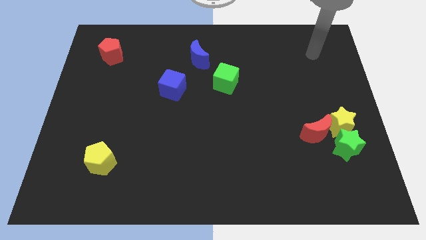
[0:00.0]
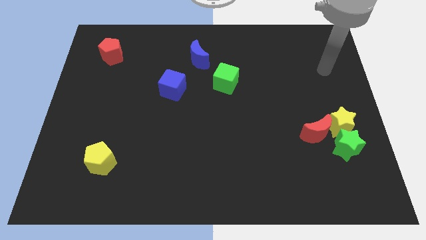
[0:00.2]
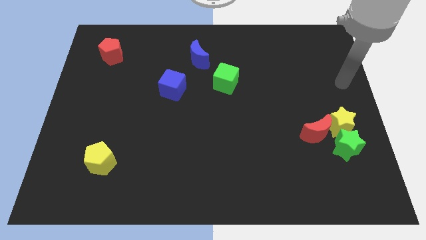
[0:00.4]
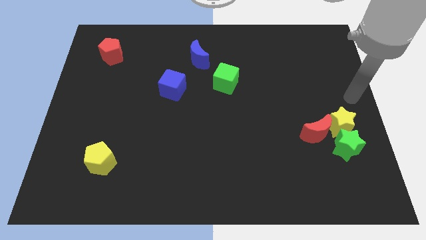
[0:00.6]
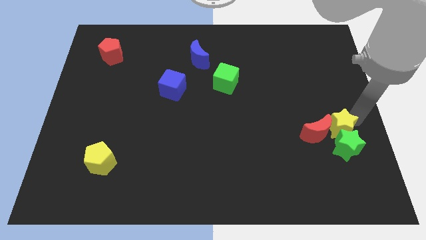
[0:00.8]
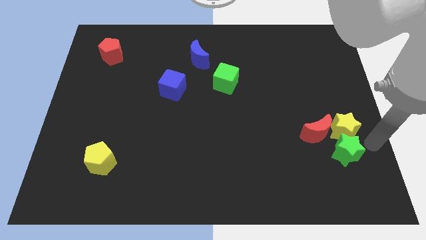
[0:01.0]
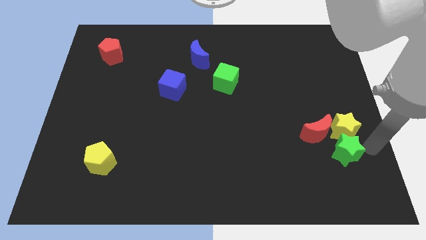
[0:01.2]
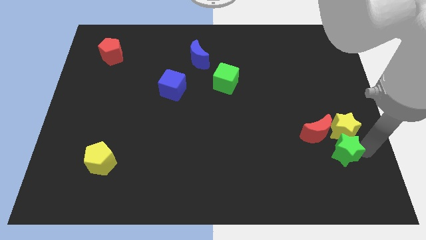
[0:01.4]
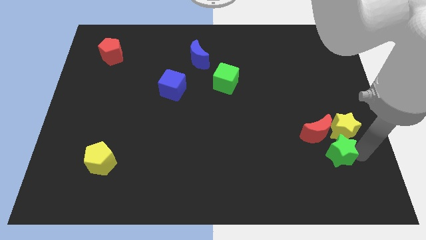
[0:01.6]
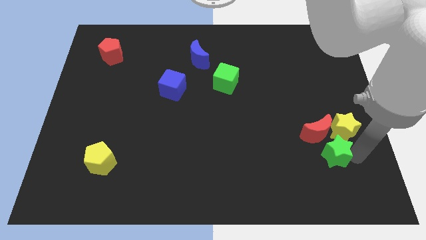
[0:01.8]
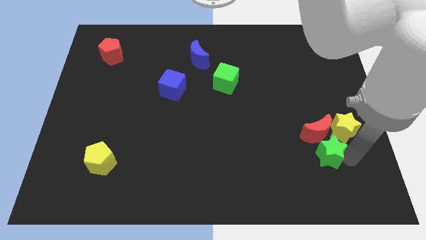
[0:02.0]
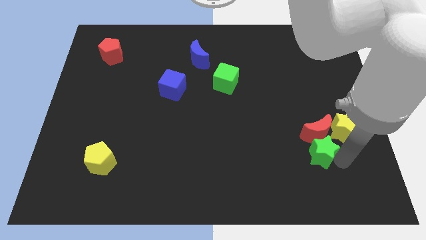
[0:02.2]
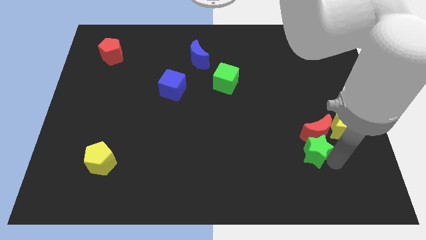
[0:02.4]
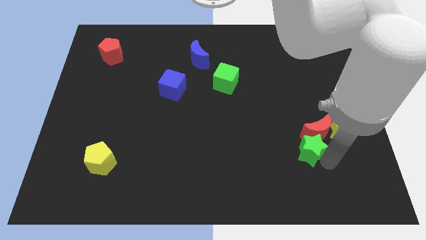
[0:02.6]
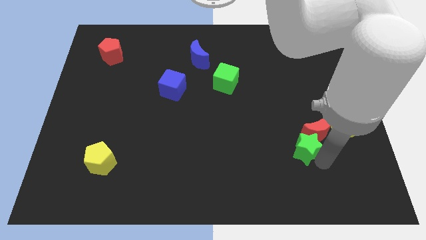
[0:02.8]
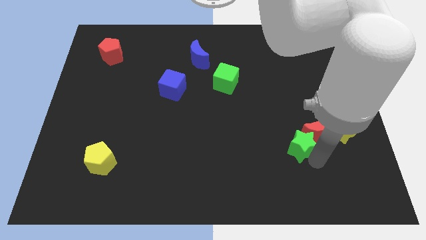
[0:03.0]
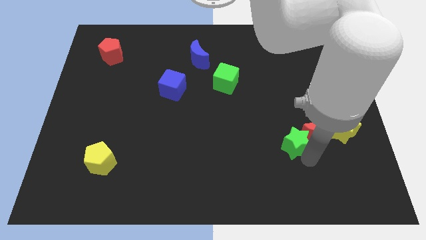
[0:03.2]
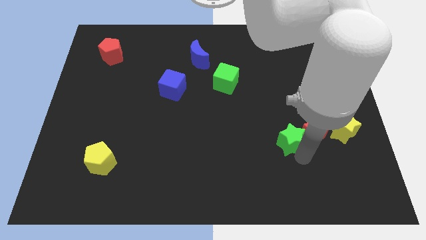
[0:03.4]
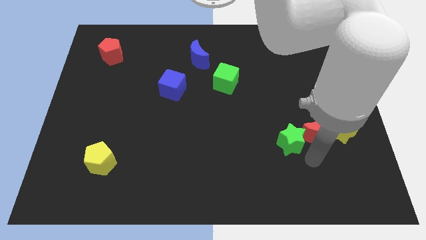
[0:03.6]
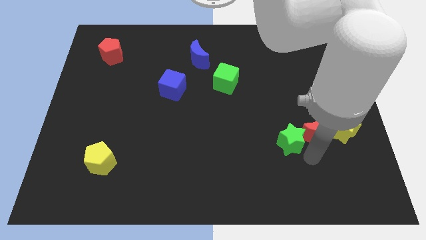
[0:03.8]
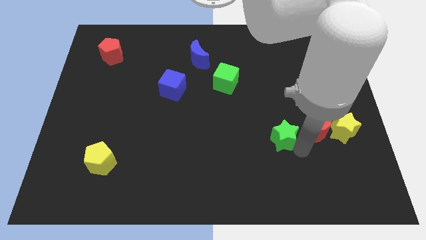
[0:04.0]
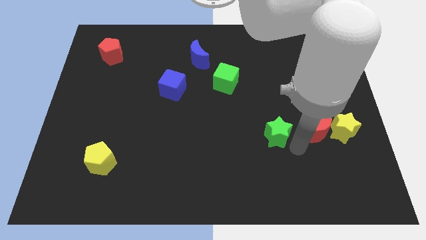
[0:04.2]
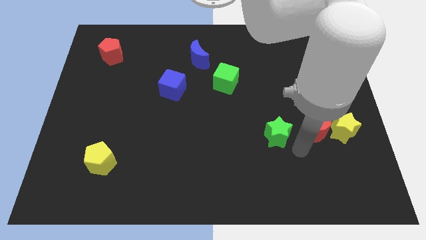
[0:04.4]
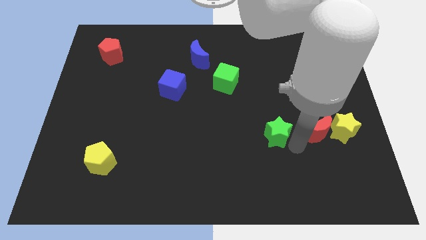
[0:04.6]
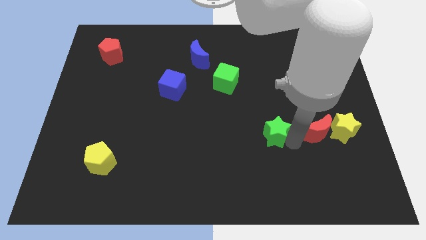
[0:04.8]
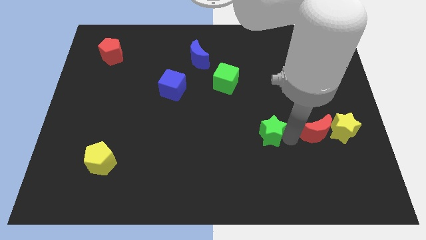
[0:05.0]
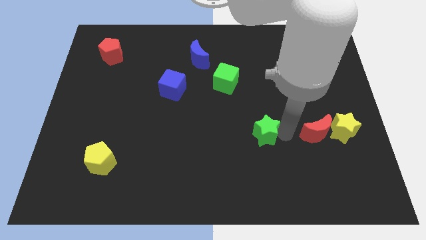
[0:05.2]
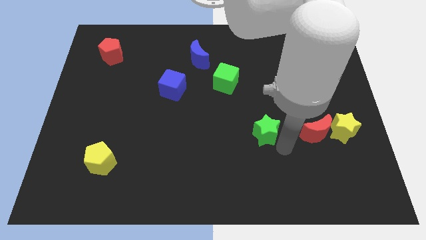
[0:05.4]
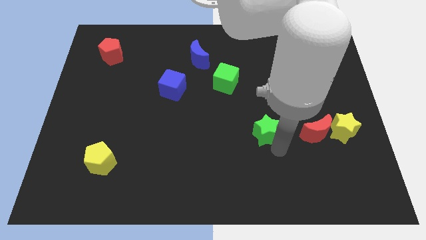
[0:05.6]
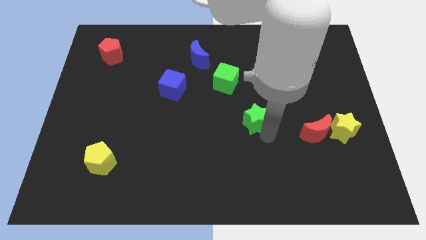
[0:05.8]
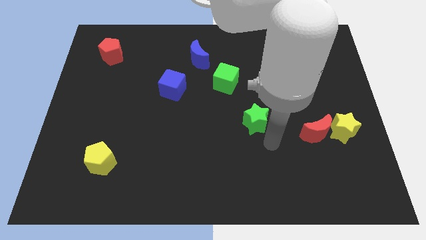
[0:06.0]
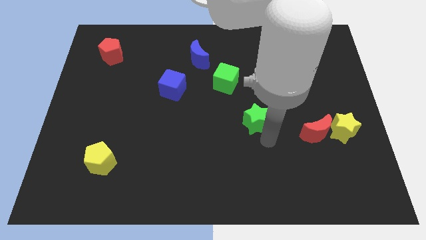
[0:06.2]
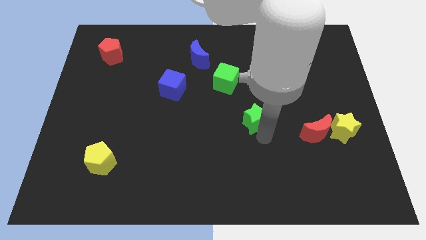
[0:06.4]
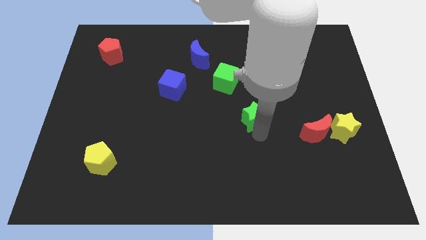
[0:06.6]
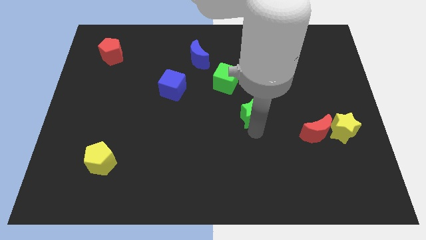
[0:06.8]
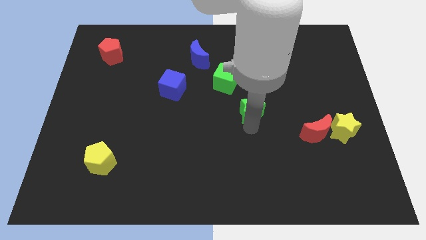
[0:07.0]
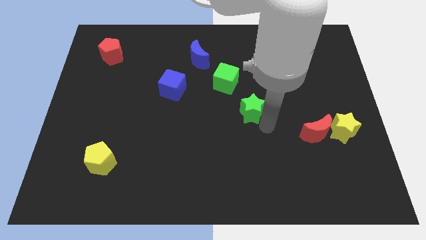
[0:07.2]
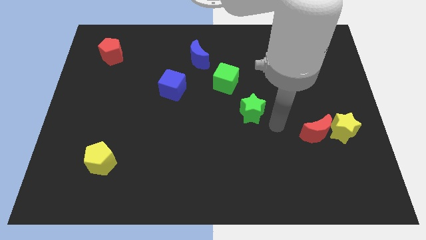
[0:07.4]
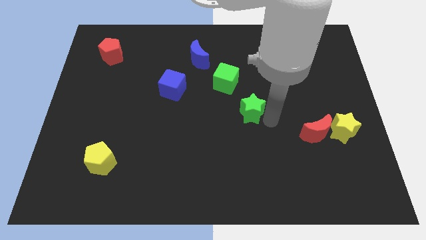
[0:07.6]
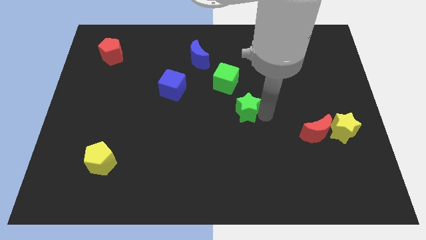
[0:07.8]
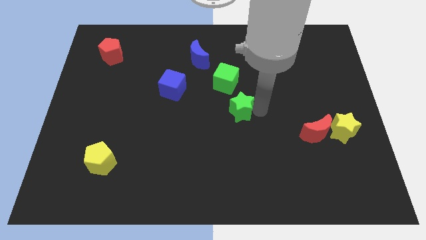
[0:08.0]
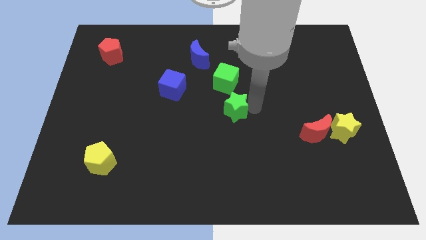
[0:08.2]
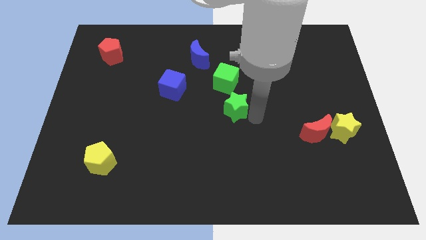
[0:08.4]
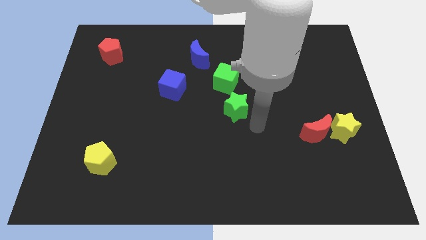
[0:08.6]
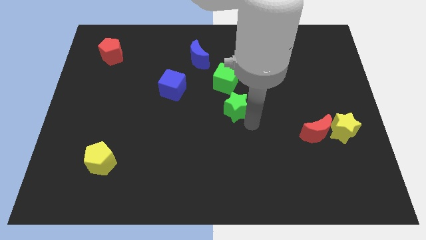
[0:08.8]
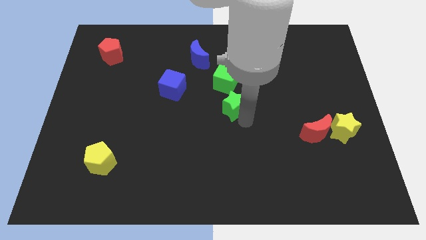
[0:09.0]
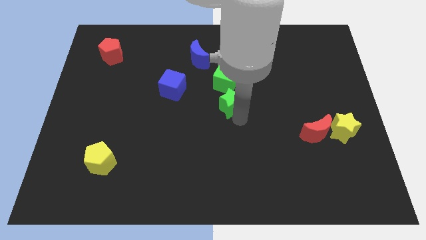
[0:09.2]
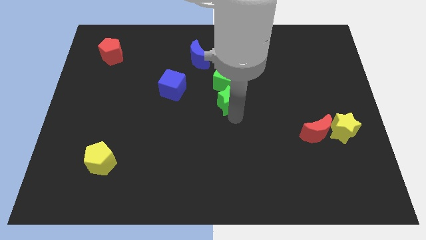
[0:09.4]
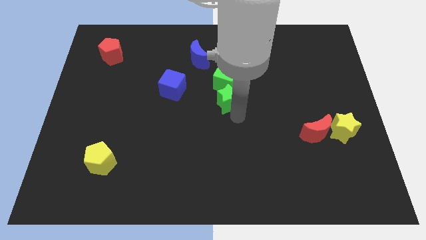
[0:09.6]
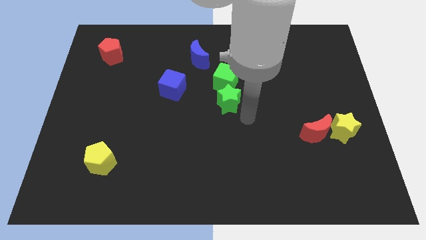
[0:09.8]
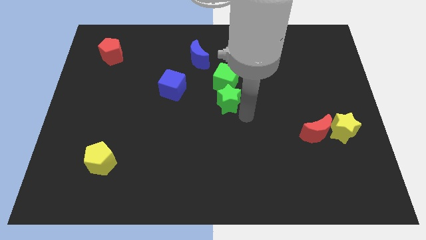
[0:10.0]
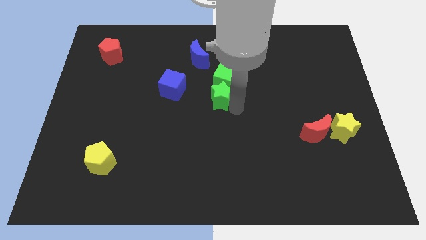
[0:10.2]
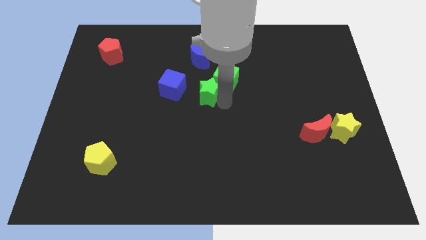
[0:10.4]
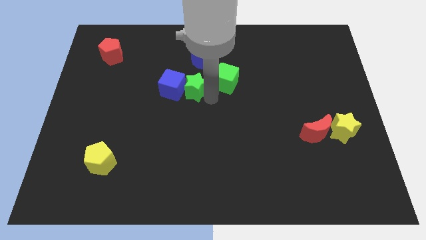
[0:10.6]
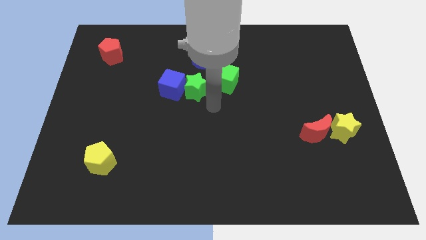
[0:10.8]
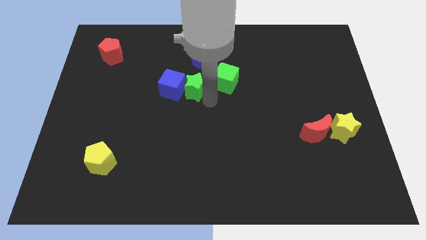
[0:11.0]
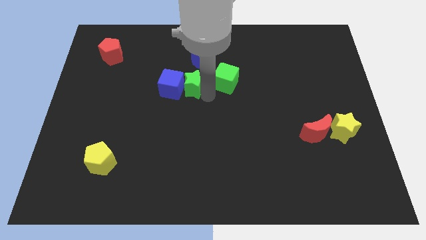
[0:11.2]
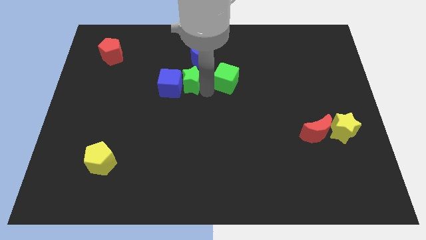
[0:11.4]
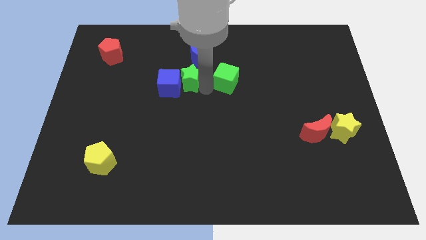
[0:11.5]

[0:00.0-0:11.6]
put the green star to the bottom left side of the blue moon
